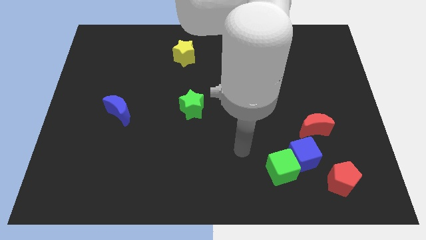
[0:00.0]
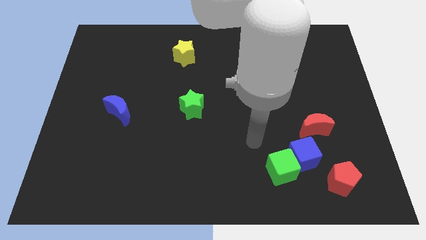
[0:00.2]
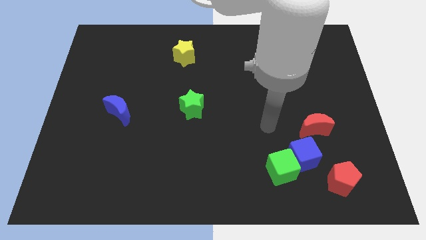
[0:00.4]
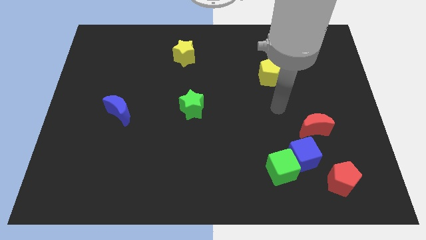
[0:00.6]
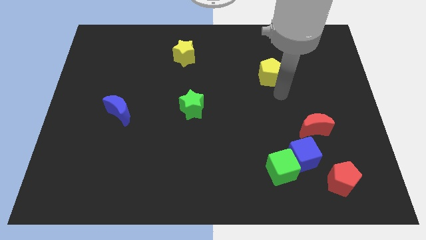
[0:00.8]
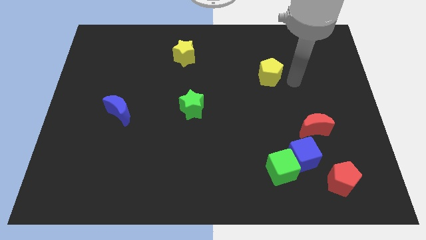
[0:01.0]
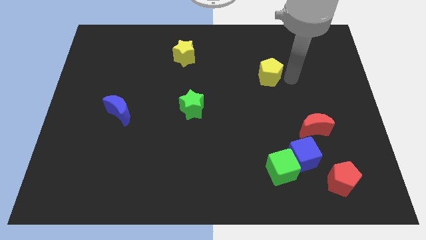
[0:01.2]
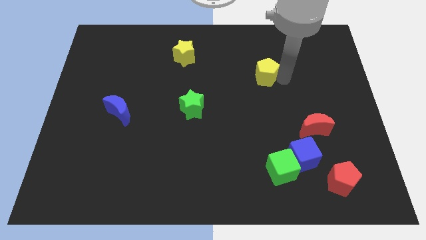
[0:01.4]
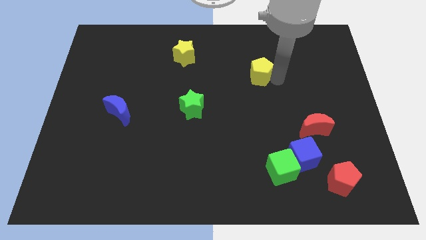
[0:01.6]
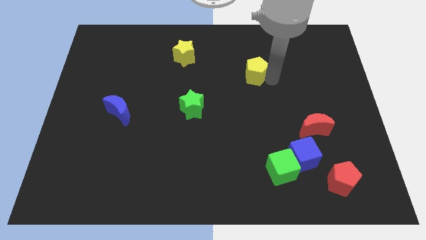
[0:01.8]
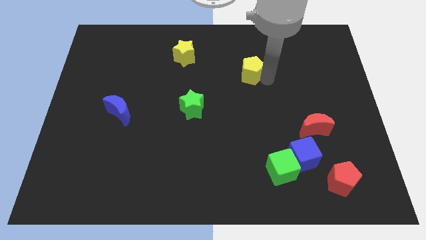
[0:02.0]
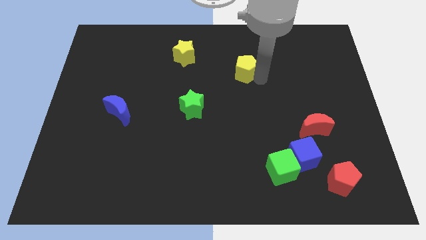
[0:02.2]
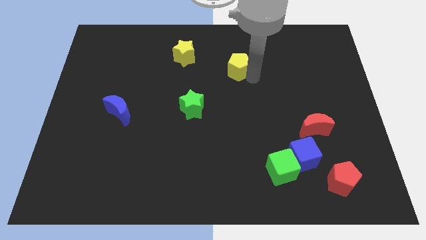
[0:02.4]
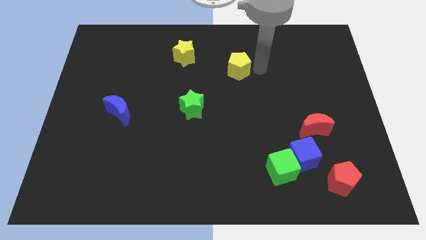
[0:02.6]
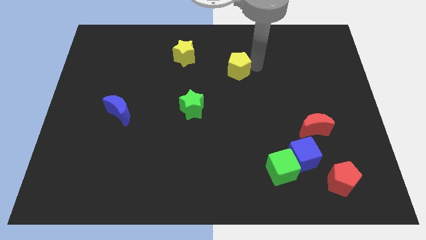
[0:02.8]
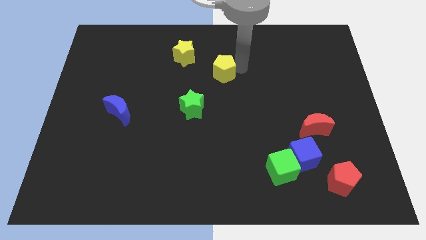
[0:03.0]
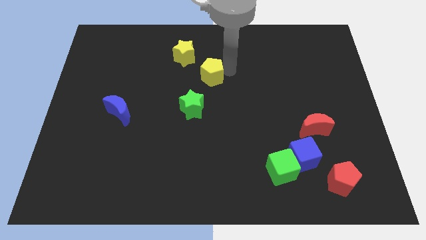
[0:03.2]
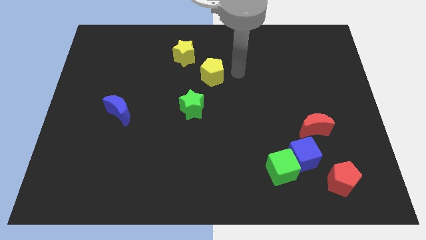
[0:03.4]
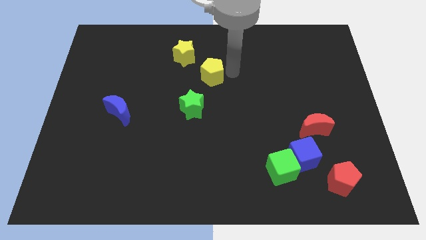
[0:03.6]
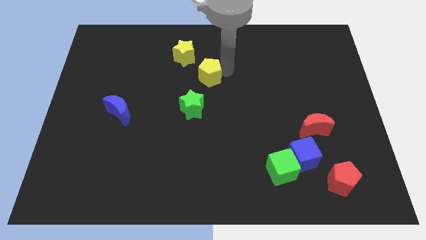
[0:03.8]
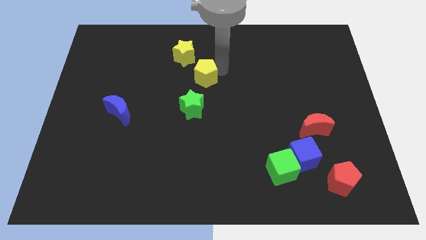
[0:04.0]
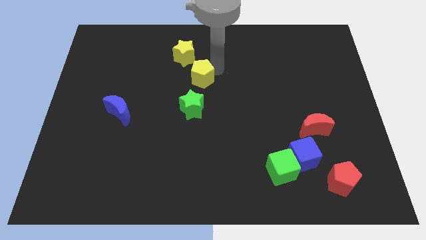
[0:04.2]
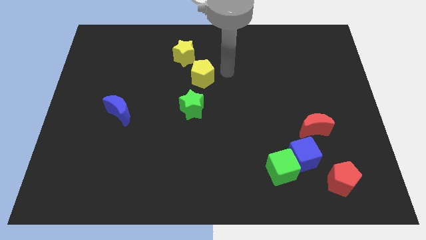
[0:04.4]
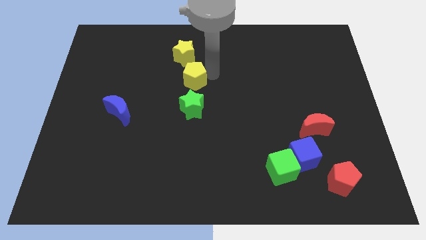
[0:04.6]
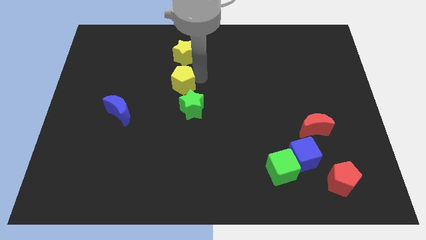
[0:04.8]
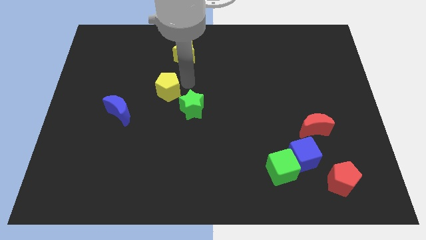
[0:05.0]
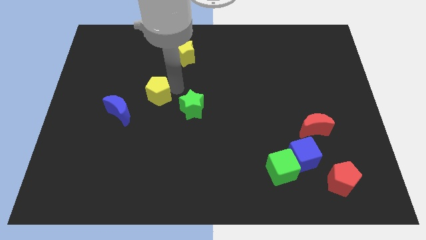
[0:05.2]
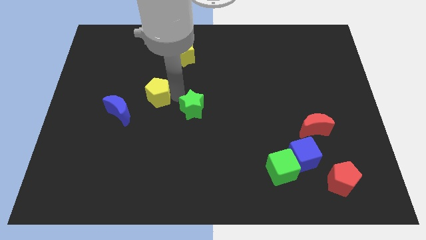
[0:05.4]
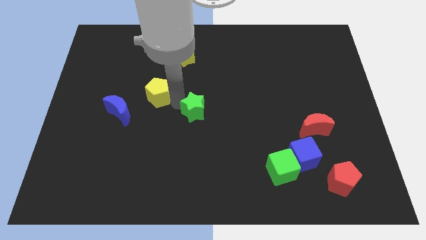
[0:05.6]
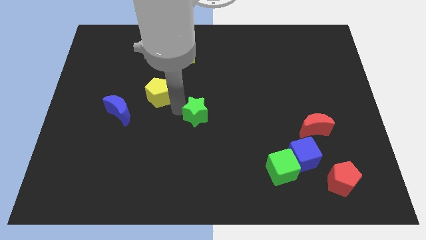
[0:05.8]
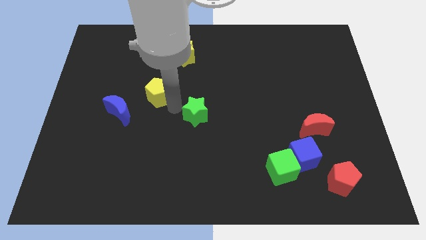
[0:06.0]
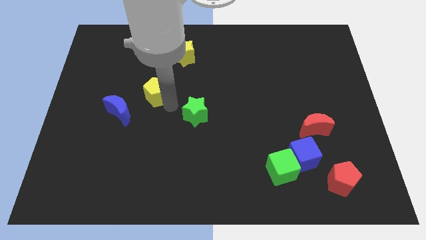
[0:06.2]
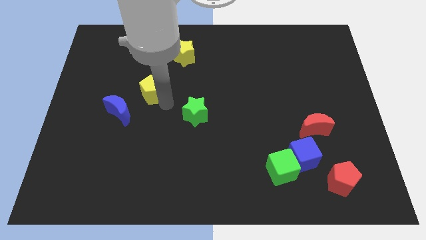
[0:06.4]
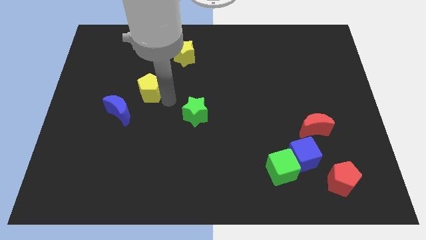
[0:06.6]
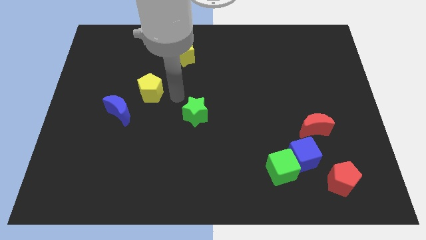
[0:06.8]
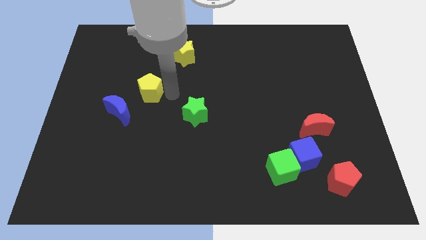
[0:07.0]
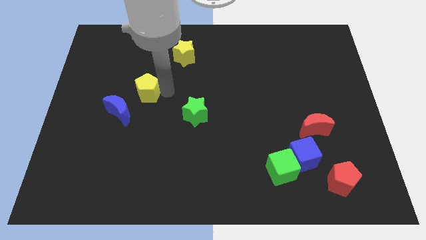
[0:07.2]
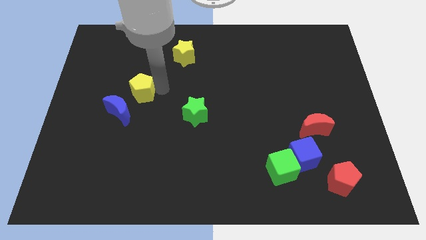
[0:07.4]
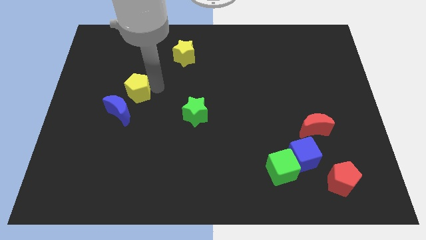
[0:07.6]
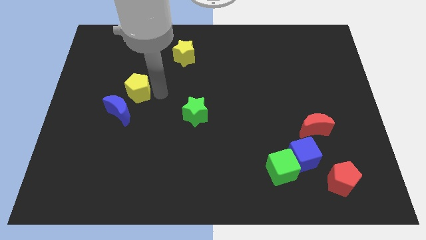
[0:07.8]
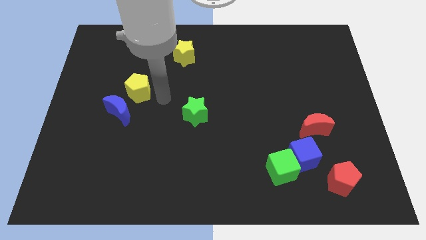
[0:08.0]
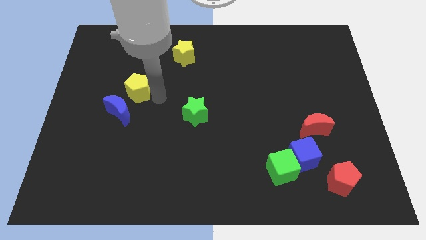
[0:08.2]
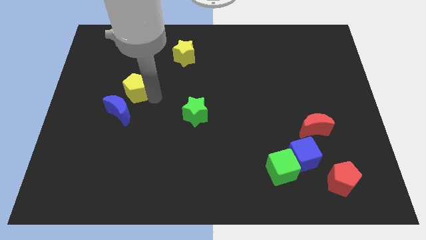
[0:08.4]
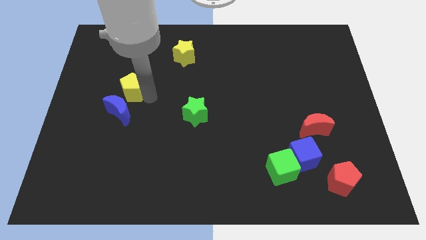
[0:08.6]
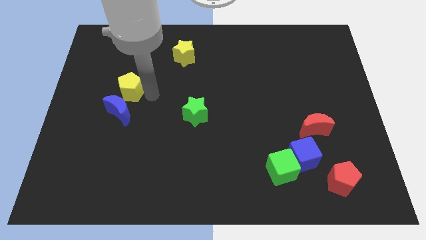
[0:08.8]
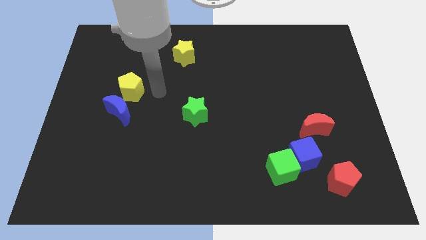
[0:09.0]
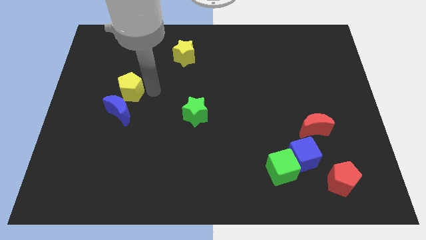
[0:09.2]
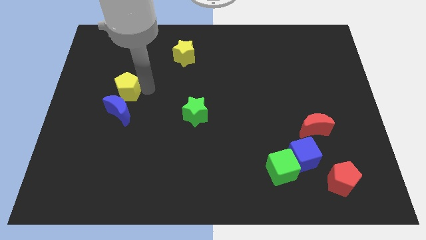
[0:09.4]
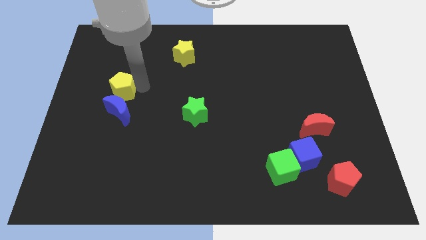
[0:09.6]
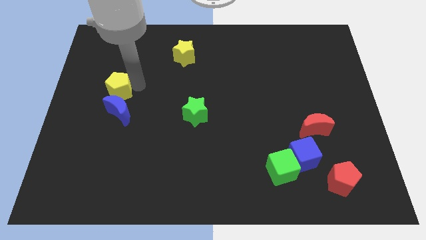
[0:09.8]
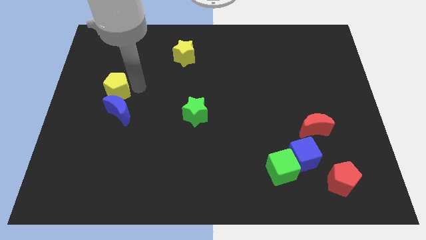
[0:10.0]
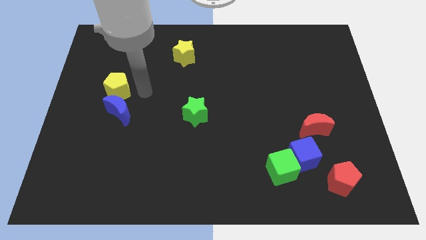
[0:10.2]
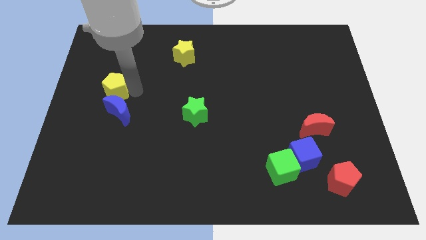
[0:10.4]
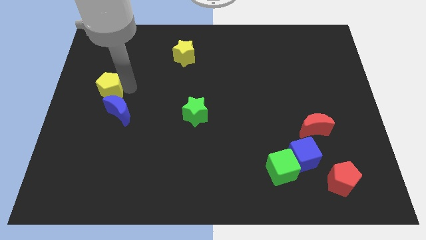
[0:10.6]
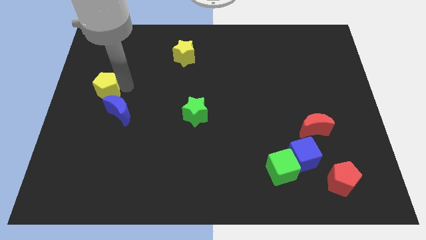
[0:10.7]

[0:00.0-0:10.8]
move the yellow pentagon to the left side
